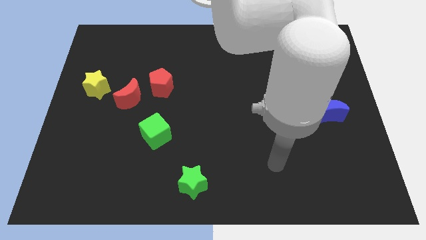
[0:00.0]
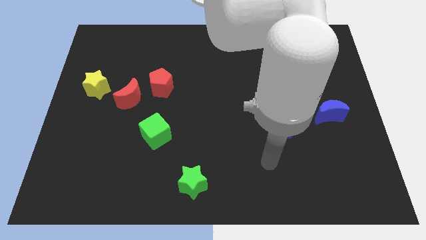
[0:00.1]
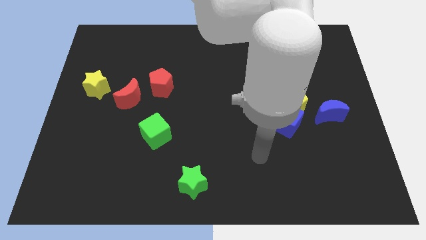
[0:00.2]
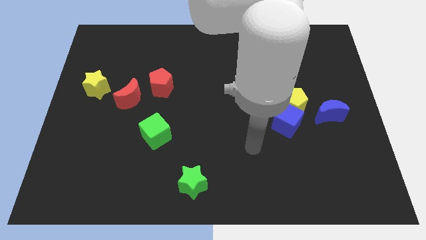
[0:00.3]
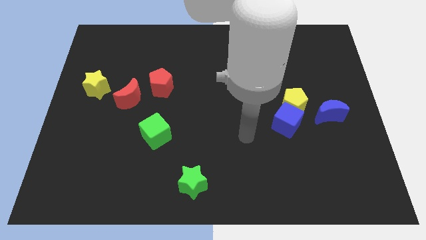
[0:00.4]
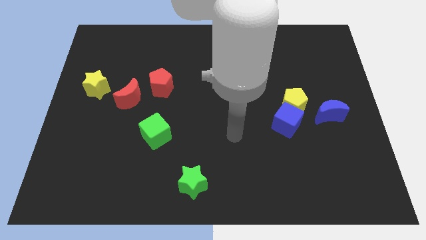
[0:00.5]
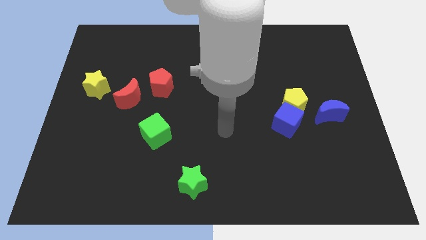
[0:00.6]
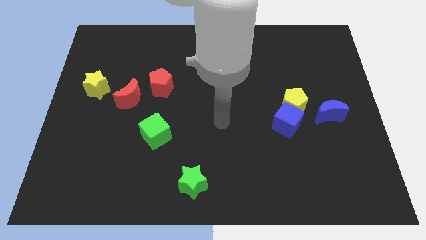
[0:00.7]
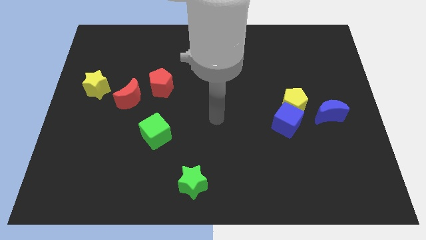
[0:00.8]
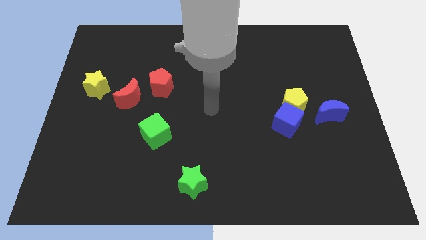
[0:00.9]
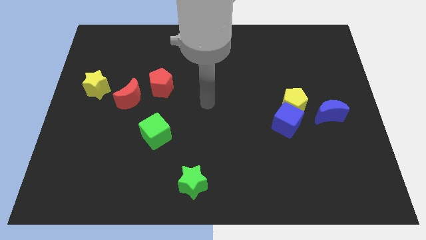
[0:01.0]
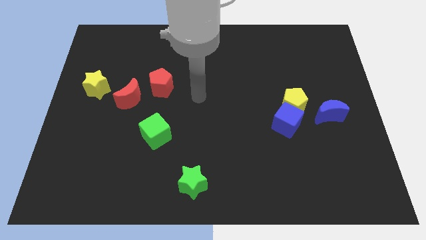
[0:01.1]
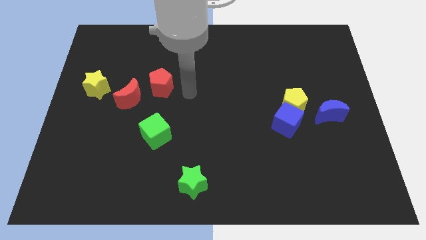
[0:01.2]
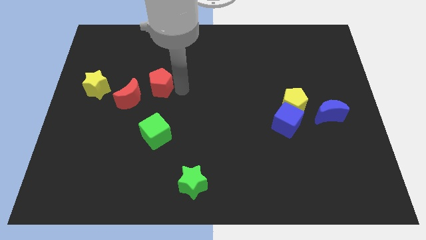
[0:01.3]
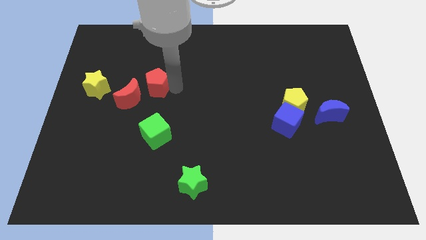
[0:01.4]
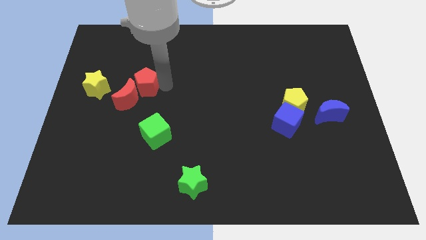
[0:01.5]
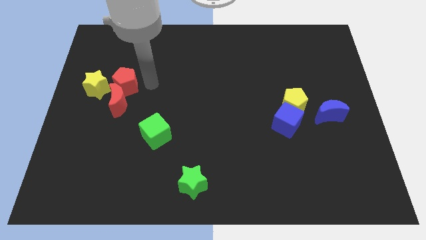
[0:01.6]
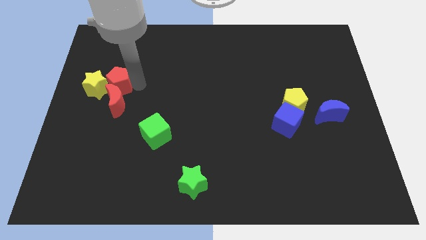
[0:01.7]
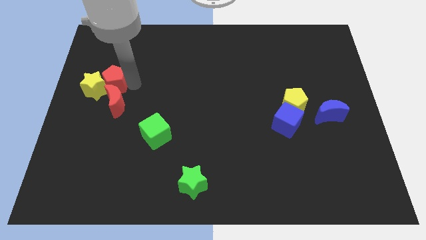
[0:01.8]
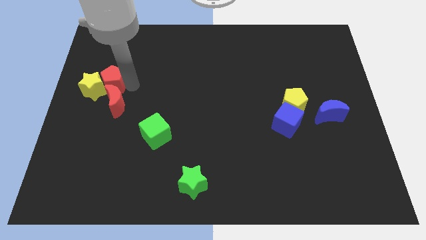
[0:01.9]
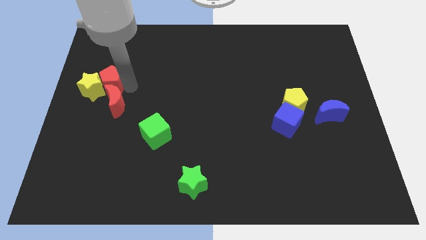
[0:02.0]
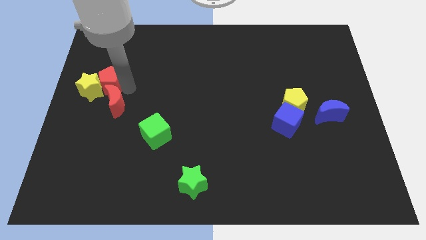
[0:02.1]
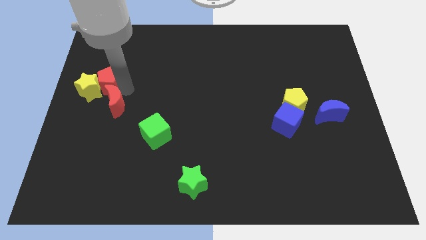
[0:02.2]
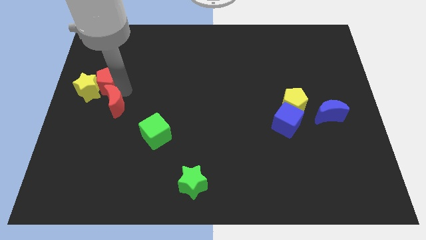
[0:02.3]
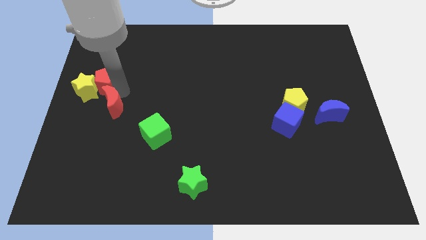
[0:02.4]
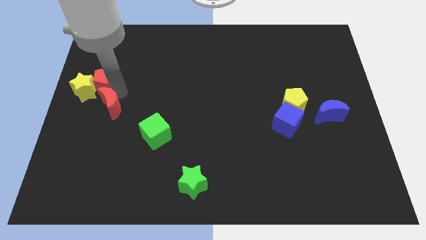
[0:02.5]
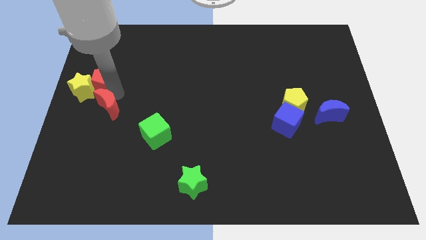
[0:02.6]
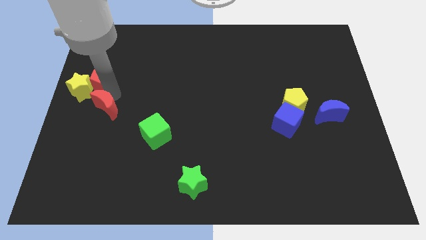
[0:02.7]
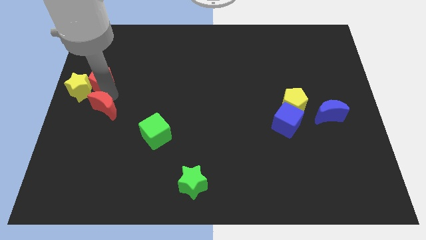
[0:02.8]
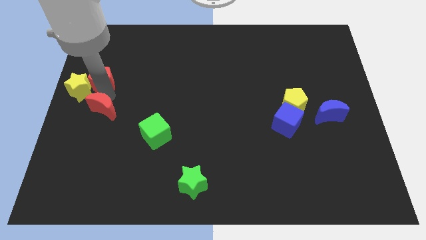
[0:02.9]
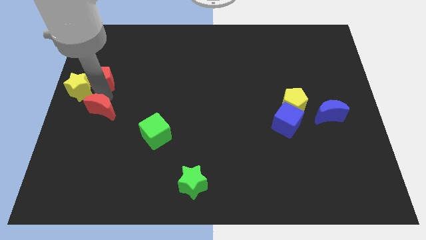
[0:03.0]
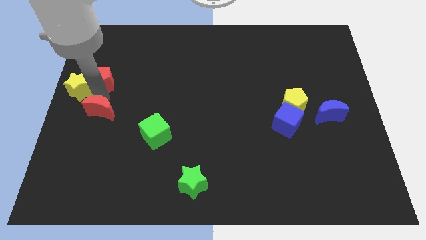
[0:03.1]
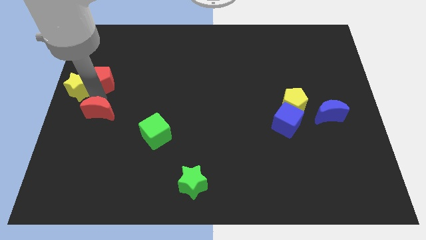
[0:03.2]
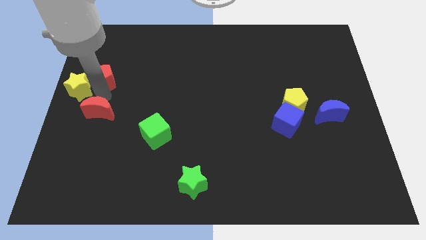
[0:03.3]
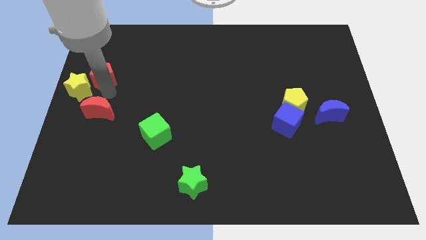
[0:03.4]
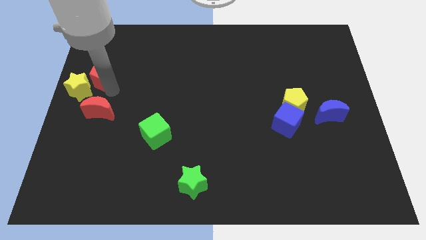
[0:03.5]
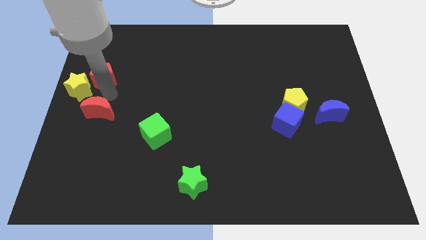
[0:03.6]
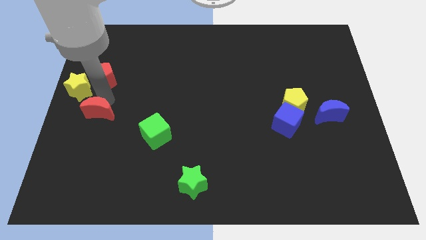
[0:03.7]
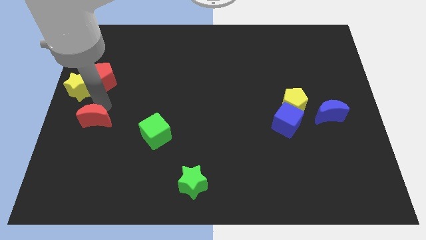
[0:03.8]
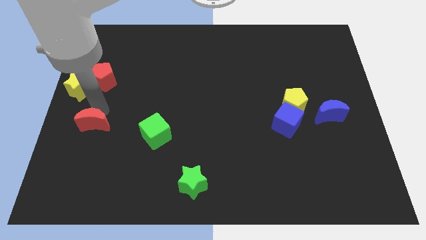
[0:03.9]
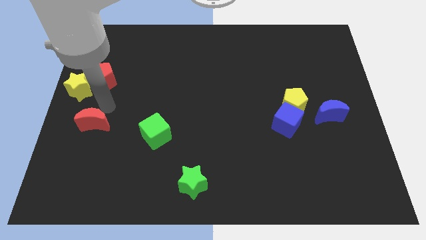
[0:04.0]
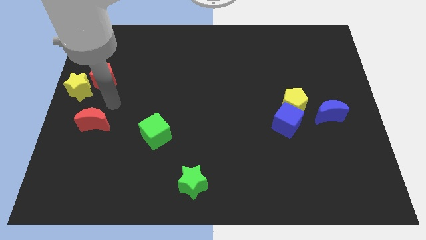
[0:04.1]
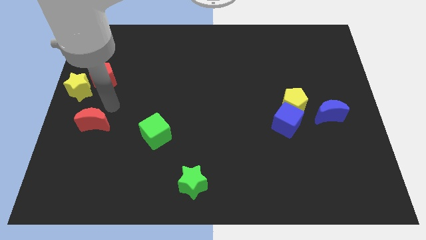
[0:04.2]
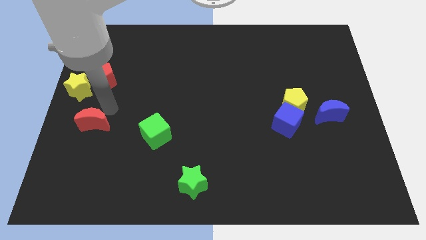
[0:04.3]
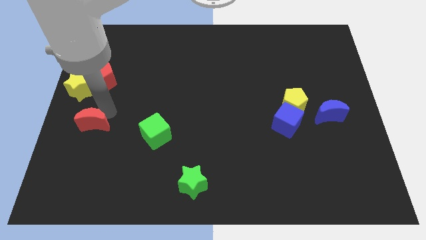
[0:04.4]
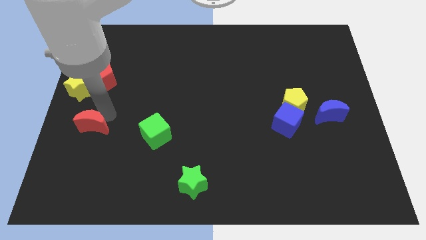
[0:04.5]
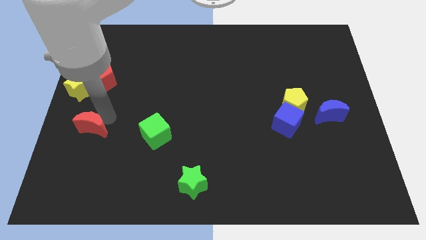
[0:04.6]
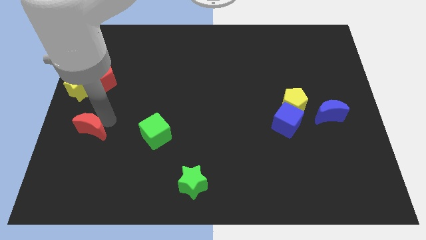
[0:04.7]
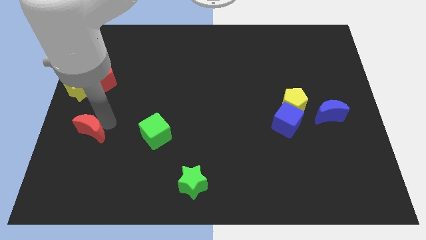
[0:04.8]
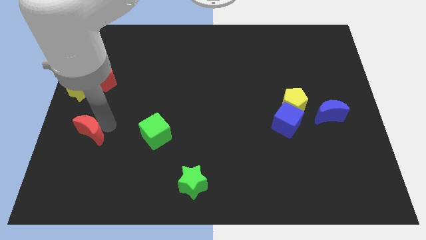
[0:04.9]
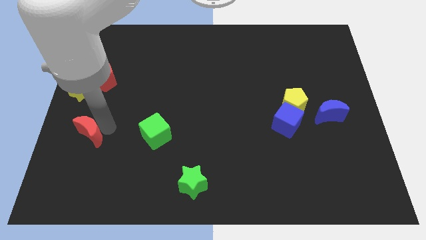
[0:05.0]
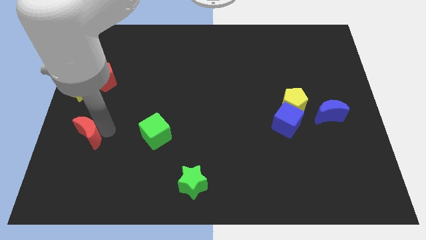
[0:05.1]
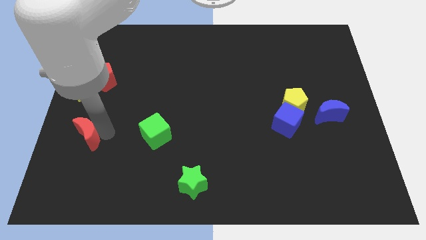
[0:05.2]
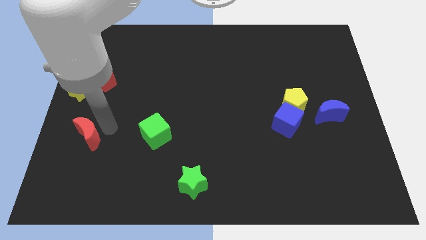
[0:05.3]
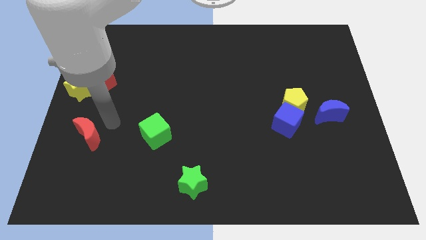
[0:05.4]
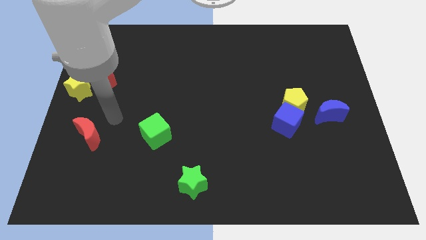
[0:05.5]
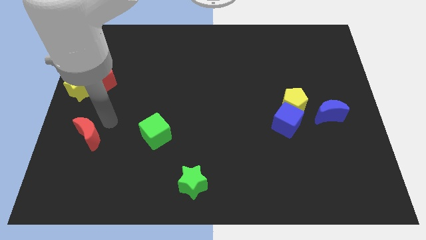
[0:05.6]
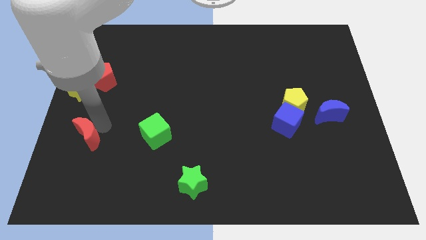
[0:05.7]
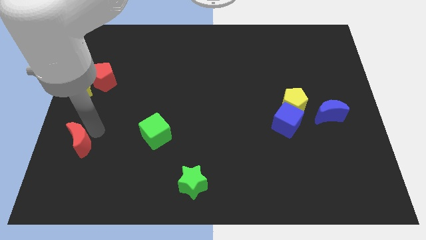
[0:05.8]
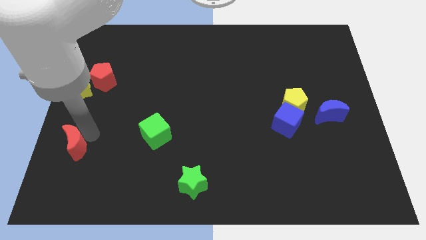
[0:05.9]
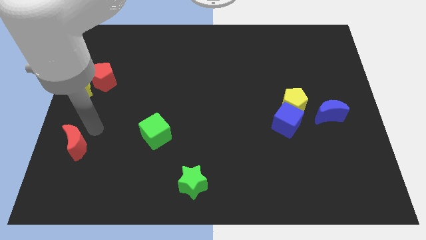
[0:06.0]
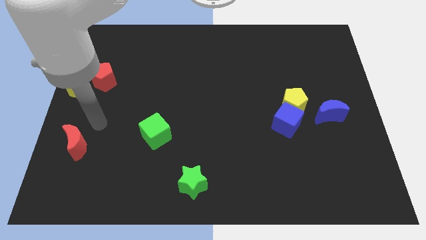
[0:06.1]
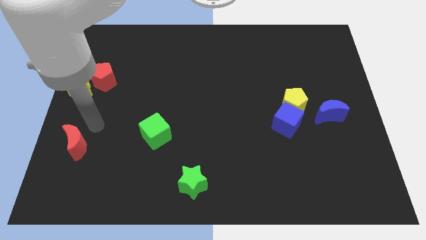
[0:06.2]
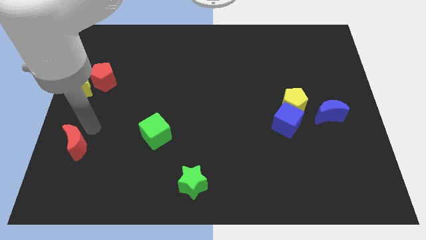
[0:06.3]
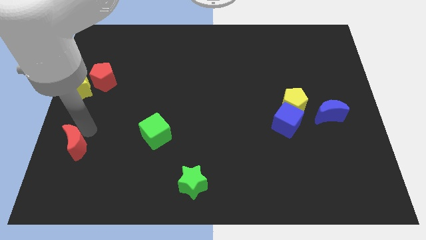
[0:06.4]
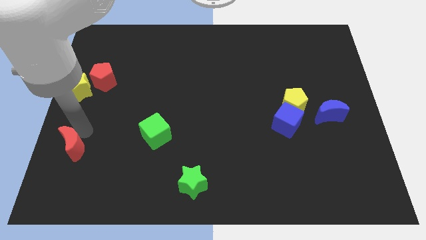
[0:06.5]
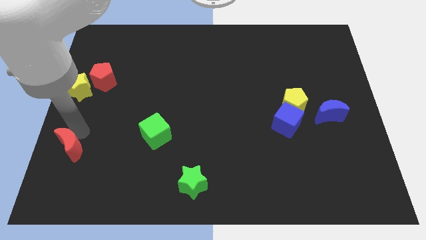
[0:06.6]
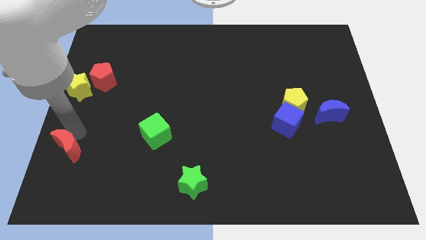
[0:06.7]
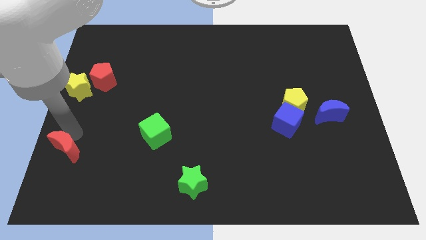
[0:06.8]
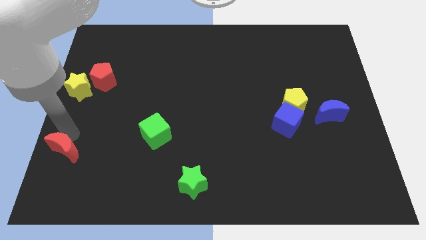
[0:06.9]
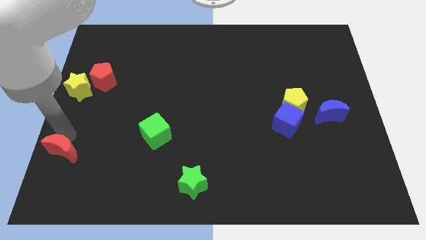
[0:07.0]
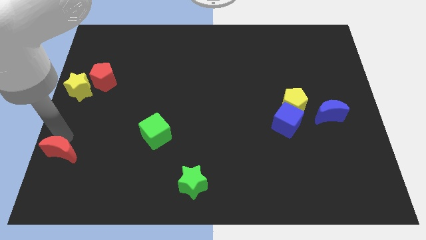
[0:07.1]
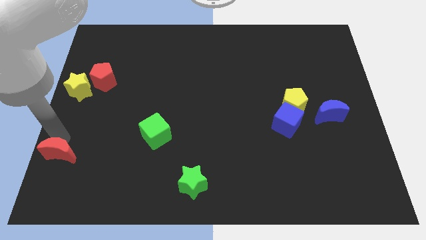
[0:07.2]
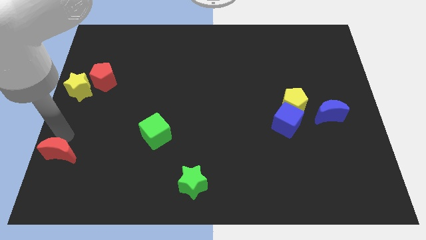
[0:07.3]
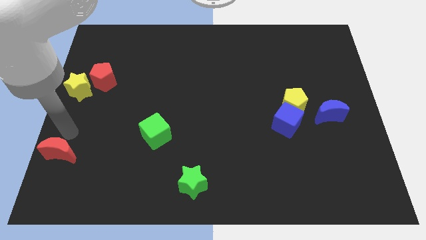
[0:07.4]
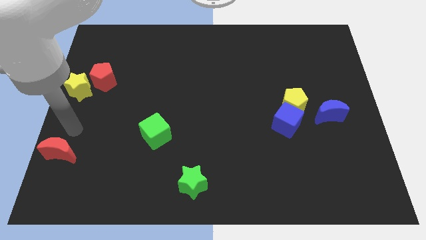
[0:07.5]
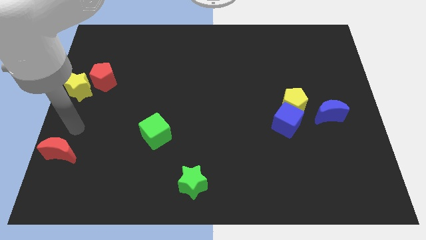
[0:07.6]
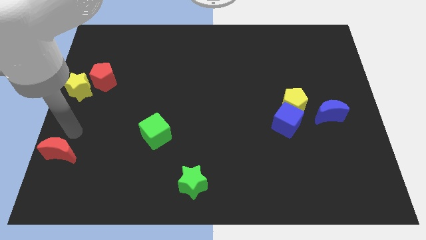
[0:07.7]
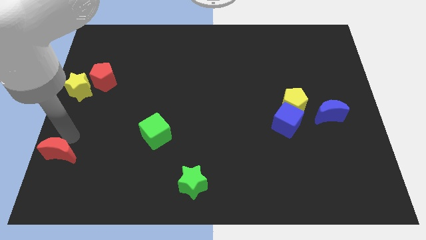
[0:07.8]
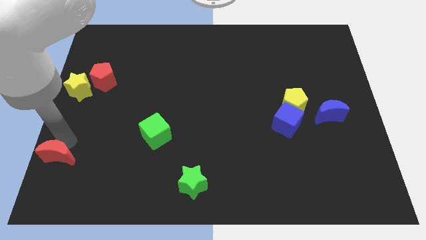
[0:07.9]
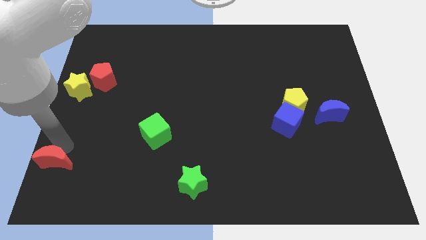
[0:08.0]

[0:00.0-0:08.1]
put the red moon to the bottom left corner
